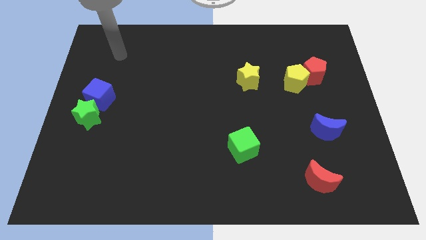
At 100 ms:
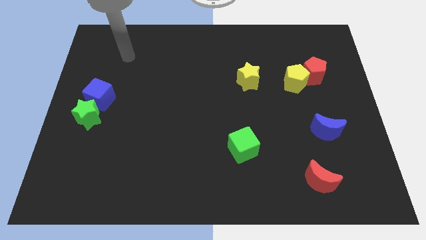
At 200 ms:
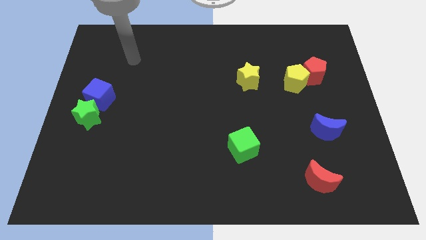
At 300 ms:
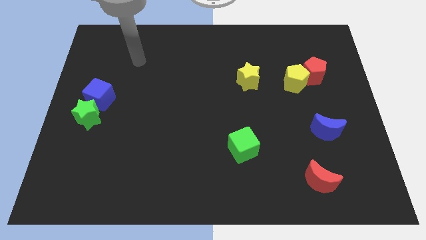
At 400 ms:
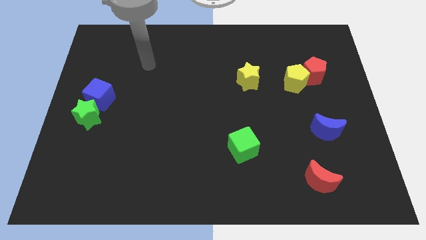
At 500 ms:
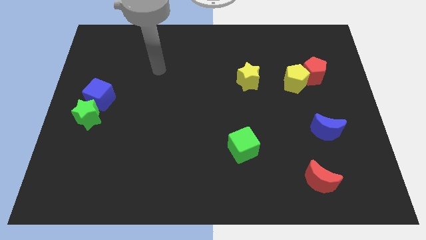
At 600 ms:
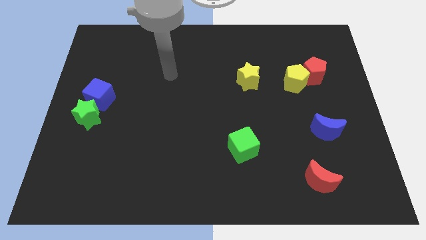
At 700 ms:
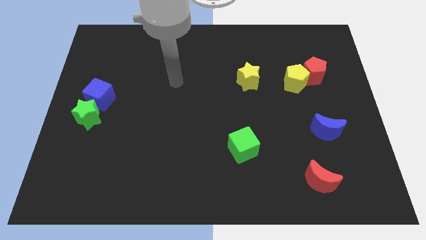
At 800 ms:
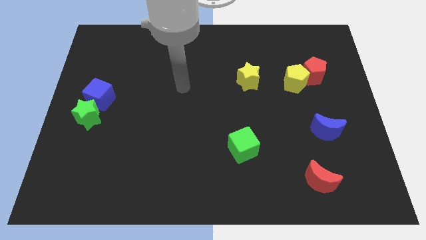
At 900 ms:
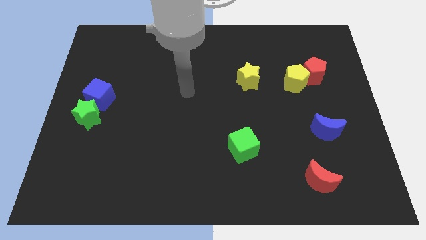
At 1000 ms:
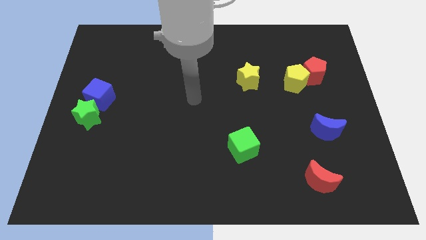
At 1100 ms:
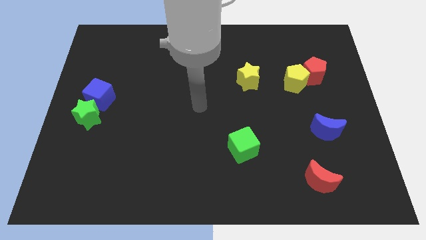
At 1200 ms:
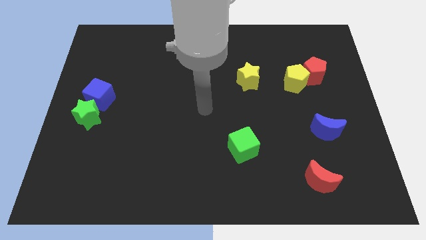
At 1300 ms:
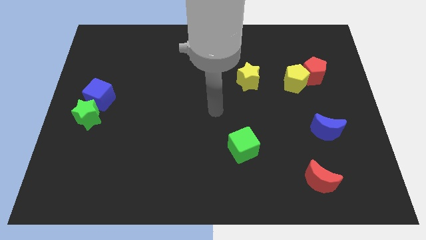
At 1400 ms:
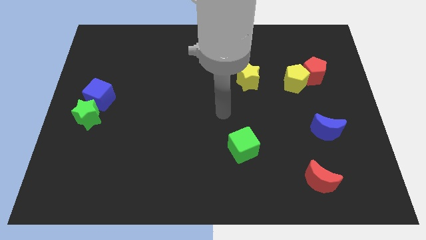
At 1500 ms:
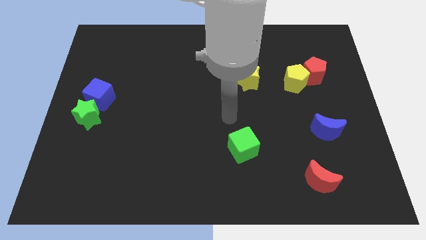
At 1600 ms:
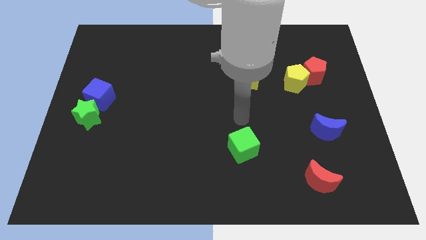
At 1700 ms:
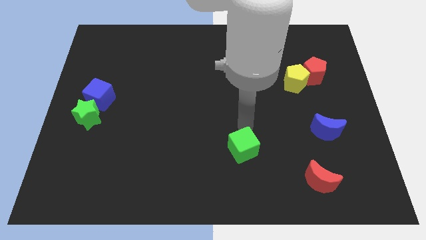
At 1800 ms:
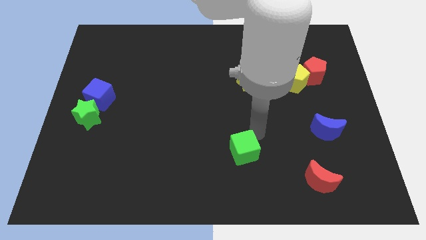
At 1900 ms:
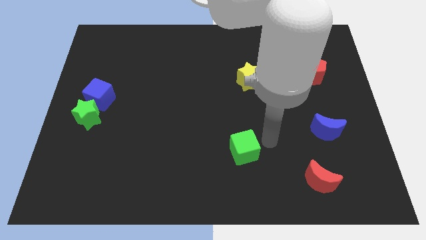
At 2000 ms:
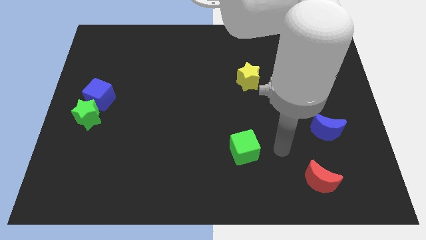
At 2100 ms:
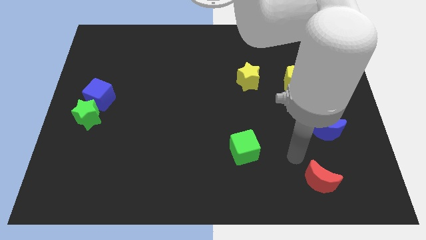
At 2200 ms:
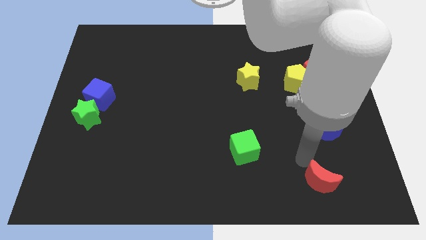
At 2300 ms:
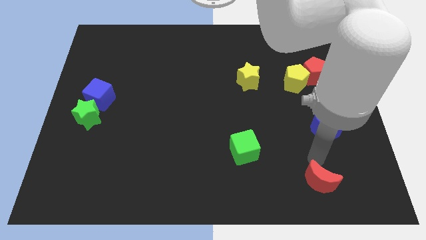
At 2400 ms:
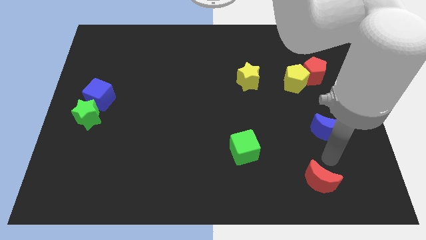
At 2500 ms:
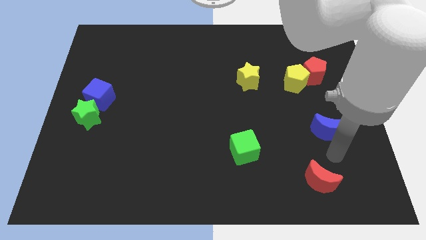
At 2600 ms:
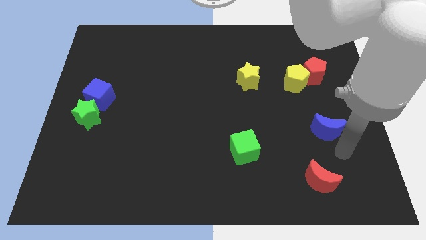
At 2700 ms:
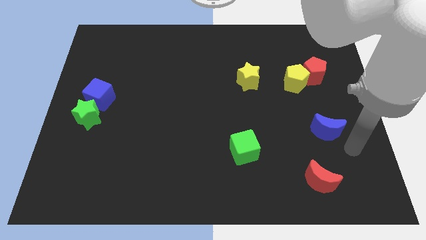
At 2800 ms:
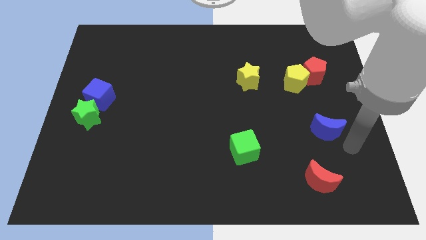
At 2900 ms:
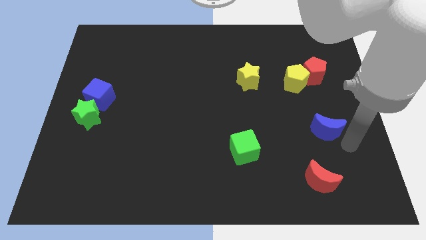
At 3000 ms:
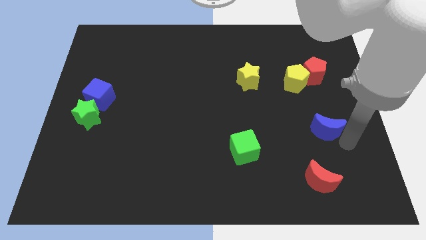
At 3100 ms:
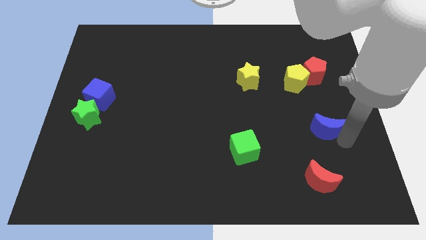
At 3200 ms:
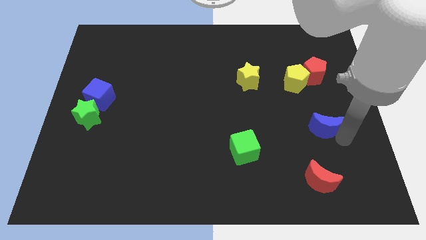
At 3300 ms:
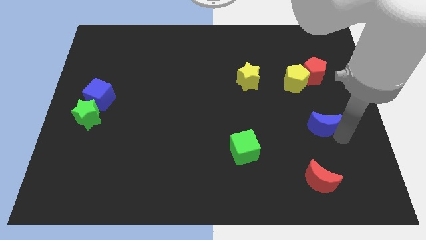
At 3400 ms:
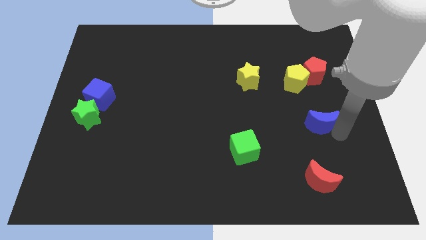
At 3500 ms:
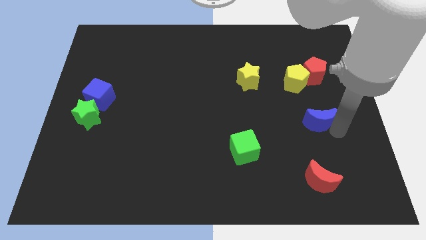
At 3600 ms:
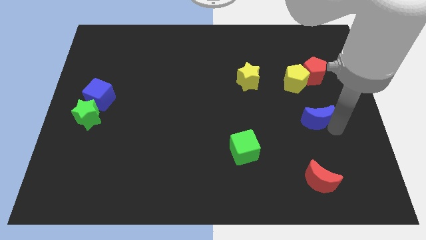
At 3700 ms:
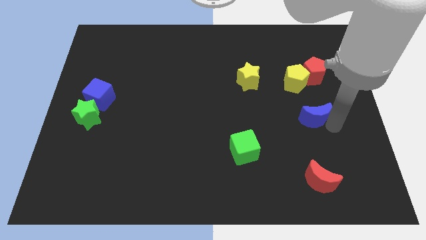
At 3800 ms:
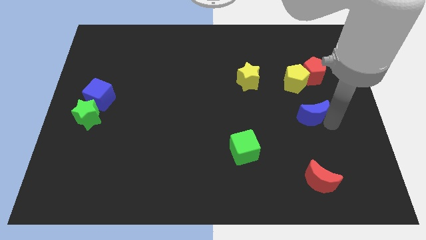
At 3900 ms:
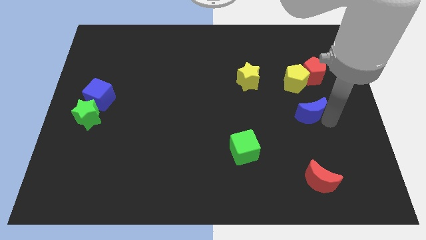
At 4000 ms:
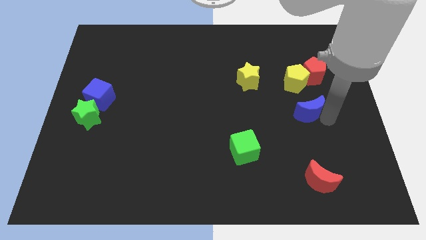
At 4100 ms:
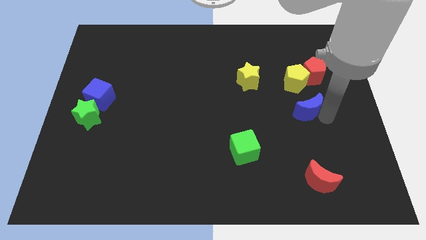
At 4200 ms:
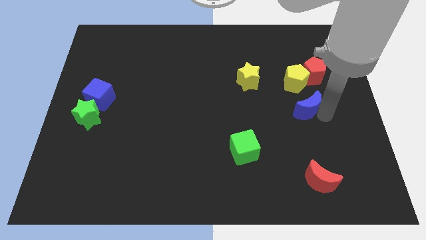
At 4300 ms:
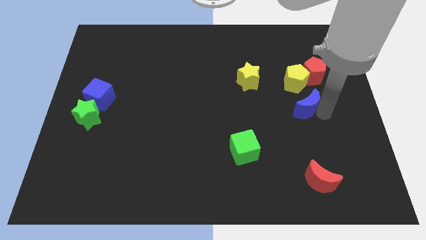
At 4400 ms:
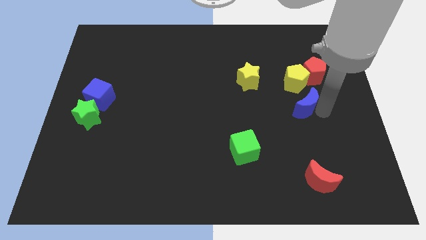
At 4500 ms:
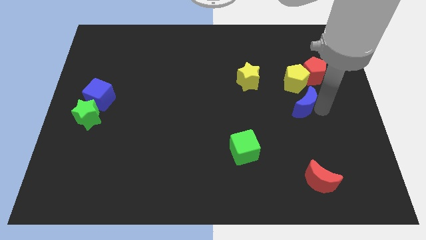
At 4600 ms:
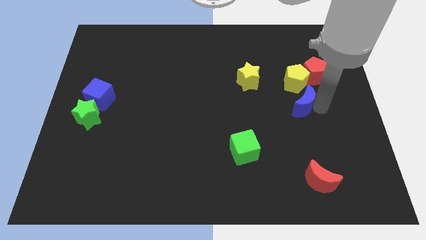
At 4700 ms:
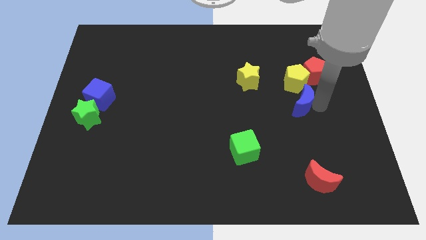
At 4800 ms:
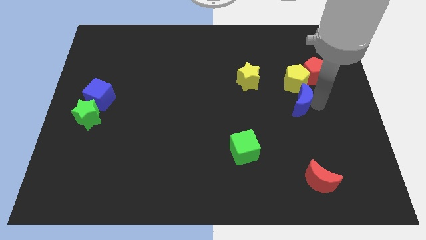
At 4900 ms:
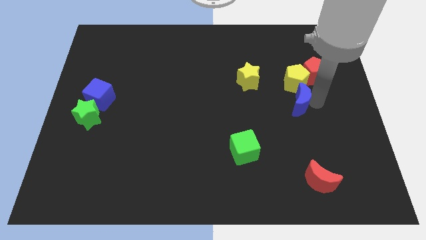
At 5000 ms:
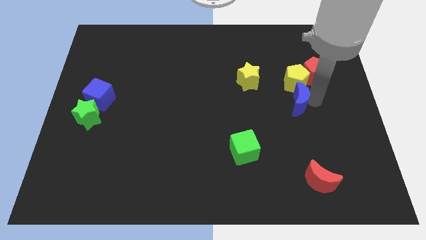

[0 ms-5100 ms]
push the blue moon to the bottom left of the yellow pentagon
